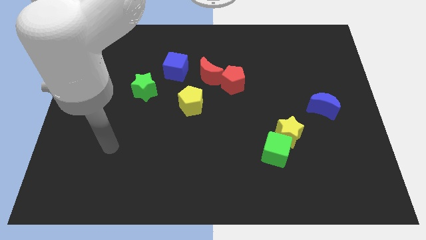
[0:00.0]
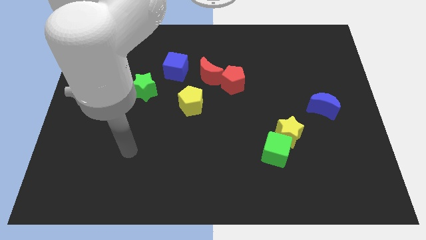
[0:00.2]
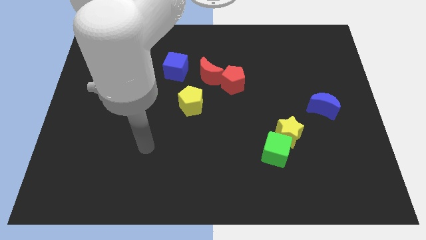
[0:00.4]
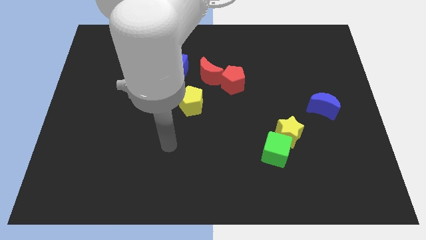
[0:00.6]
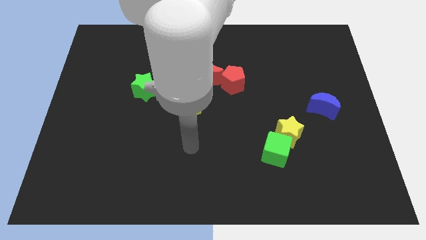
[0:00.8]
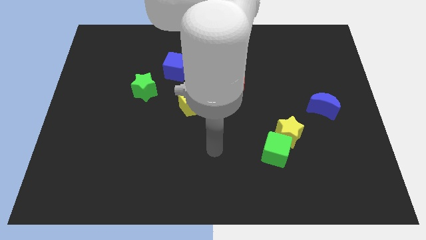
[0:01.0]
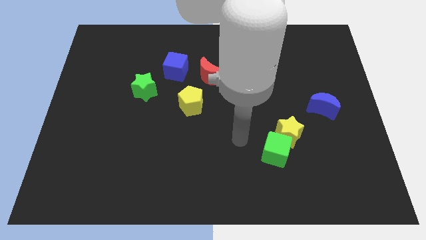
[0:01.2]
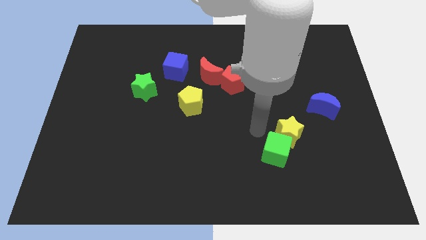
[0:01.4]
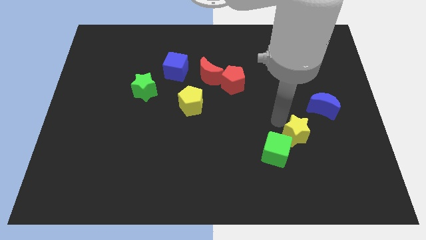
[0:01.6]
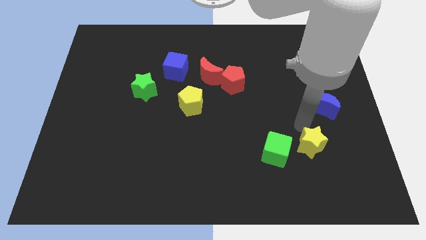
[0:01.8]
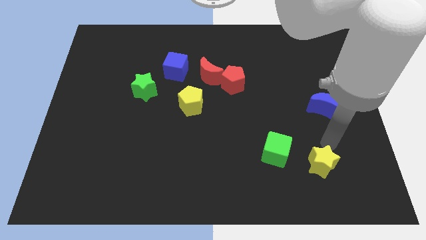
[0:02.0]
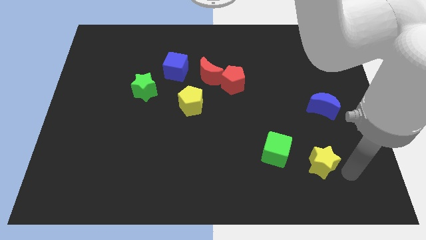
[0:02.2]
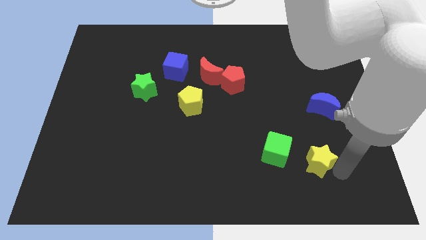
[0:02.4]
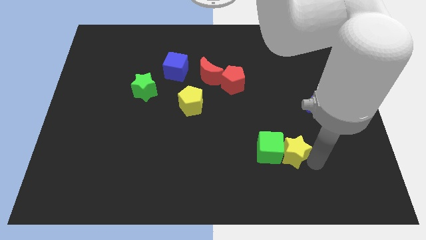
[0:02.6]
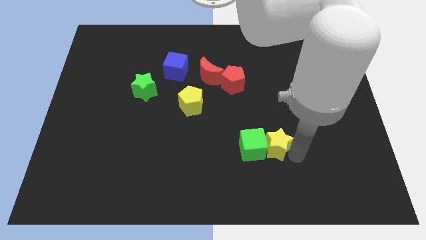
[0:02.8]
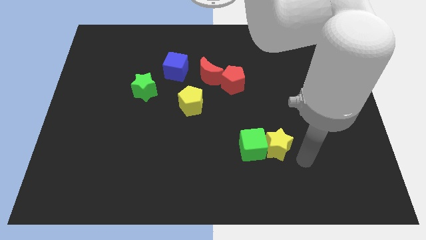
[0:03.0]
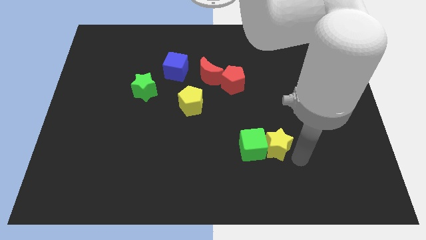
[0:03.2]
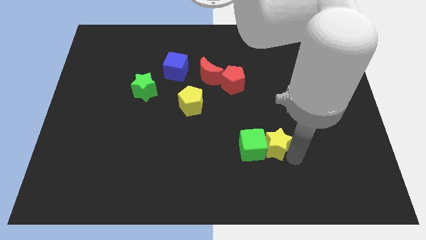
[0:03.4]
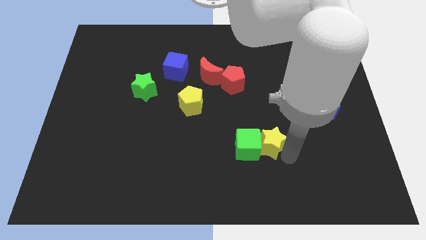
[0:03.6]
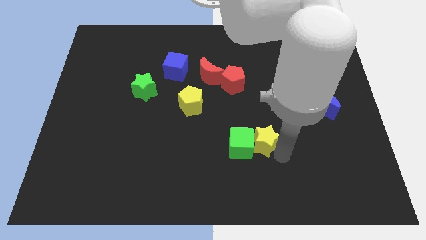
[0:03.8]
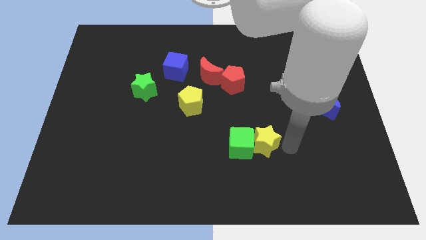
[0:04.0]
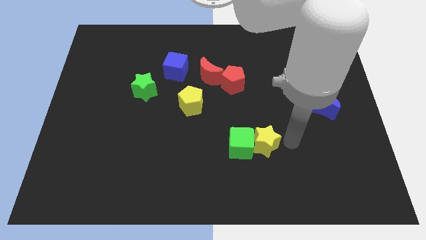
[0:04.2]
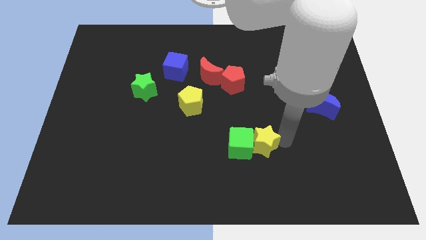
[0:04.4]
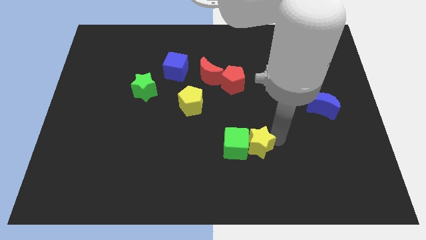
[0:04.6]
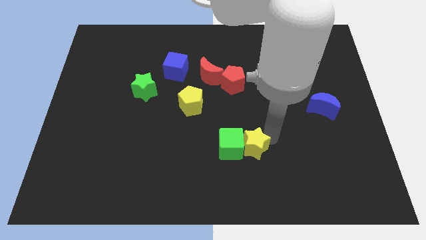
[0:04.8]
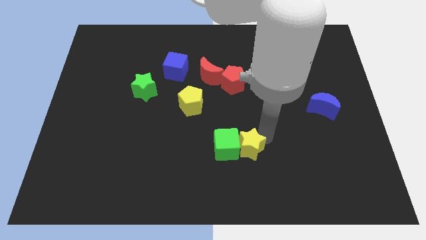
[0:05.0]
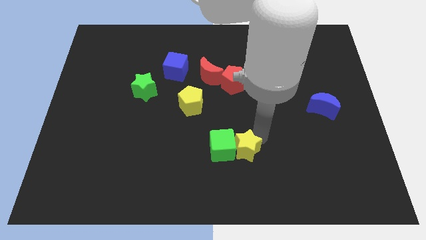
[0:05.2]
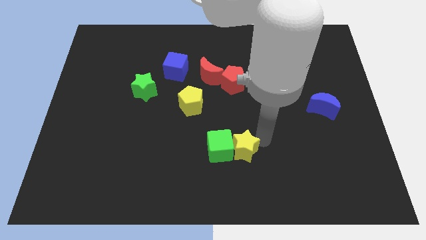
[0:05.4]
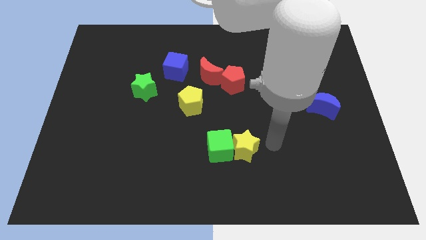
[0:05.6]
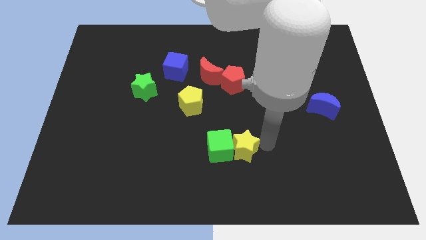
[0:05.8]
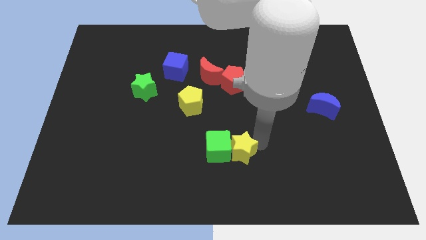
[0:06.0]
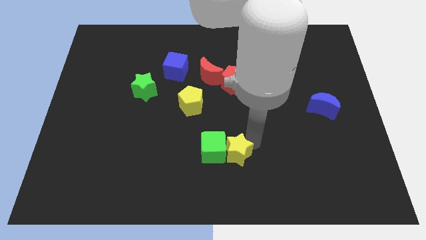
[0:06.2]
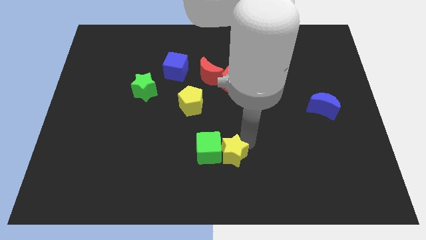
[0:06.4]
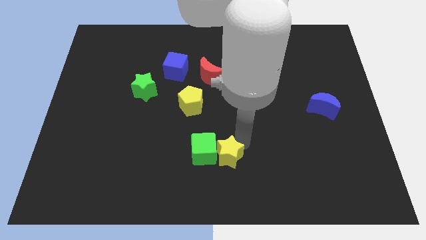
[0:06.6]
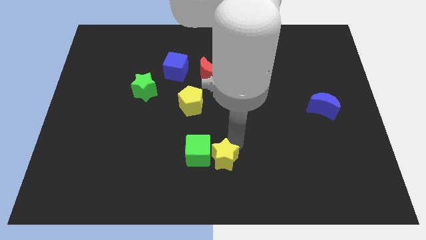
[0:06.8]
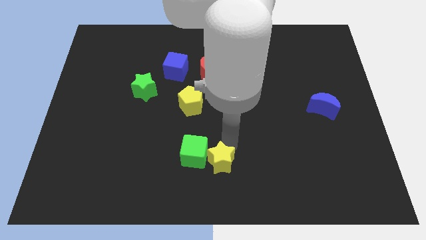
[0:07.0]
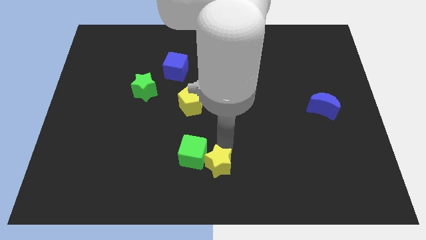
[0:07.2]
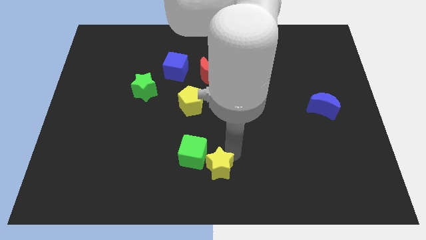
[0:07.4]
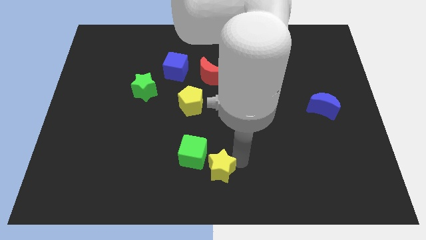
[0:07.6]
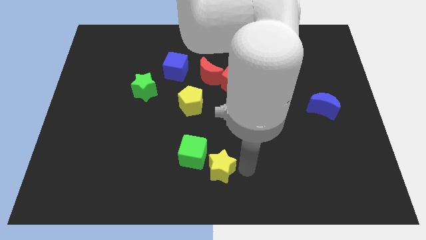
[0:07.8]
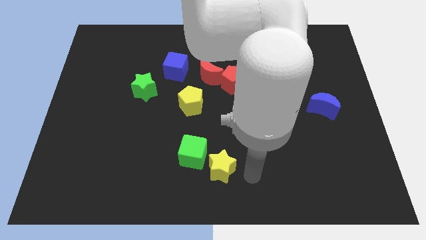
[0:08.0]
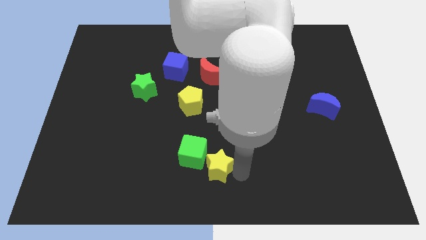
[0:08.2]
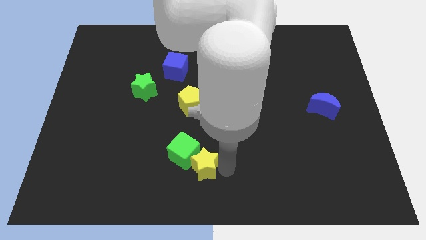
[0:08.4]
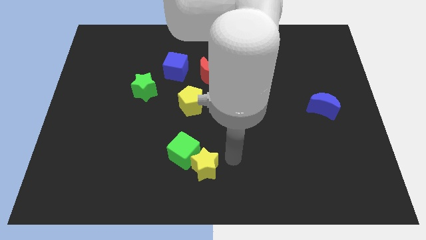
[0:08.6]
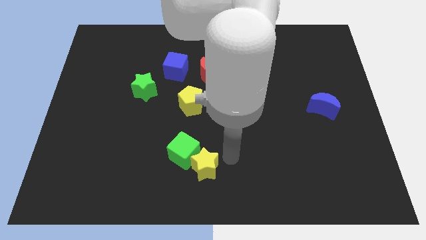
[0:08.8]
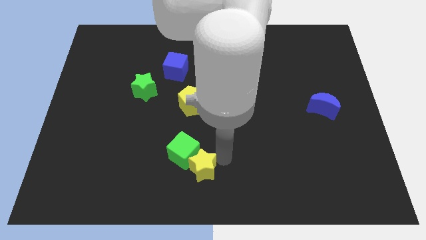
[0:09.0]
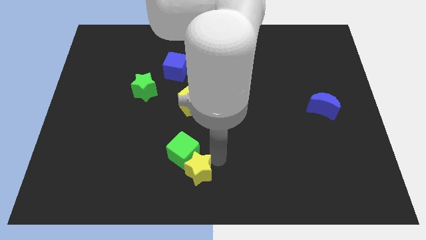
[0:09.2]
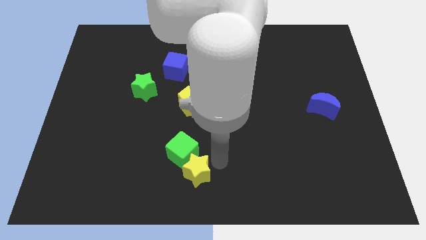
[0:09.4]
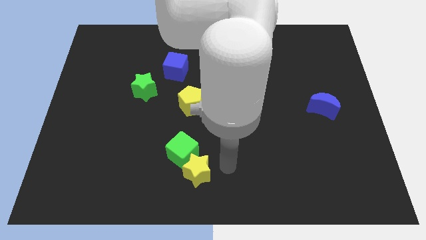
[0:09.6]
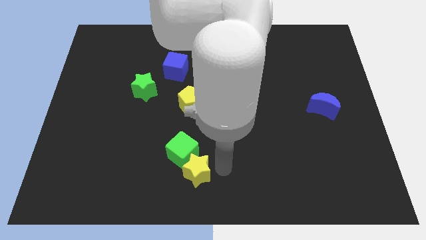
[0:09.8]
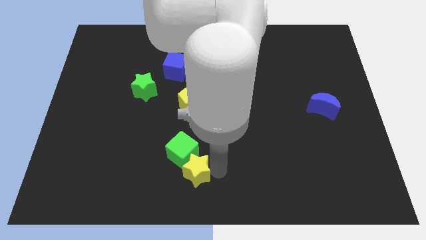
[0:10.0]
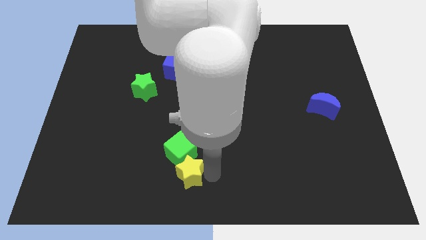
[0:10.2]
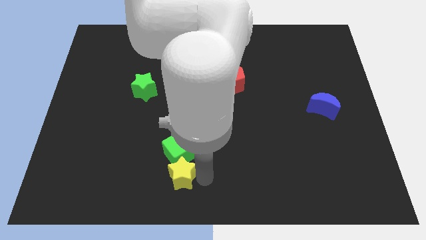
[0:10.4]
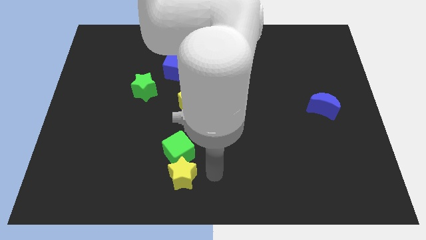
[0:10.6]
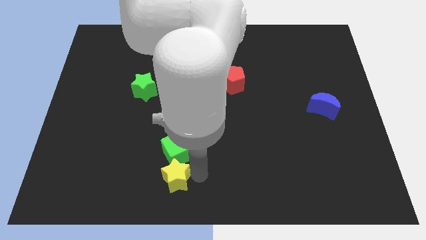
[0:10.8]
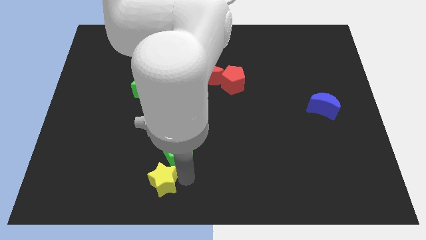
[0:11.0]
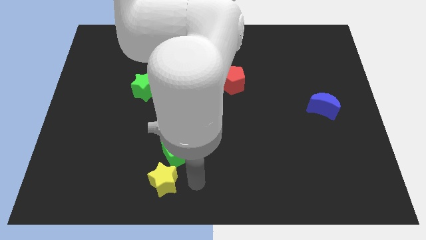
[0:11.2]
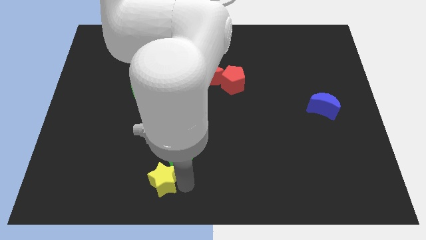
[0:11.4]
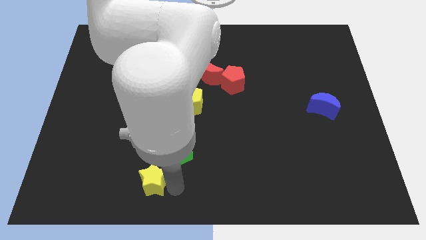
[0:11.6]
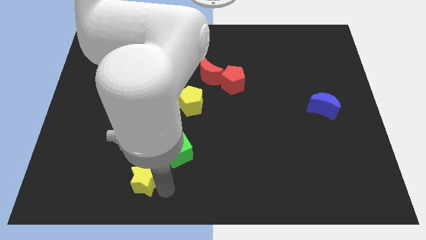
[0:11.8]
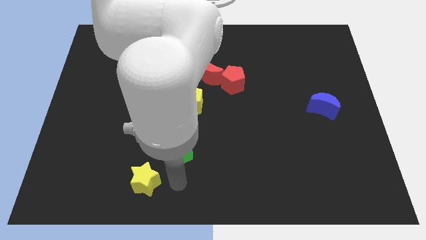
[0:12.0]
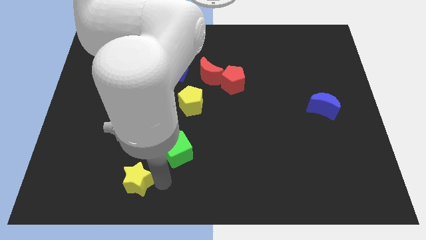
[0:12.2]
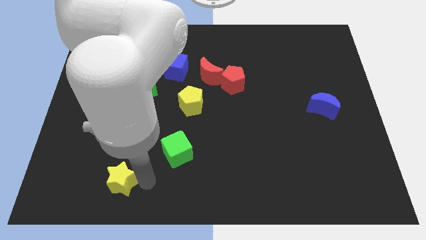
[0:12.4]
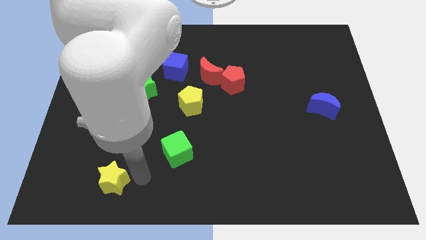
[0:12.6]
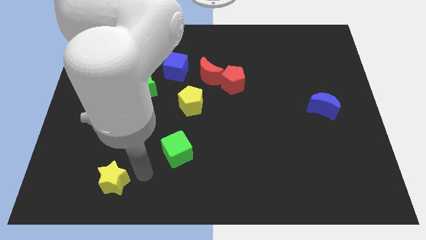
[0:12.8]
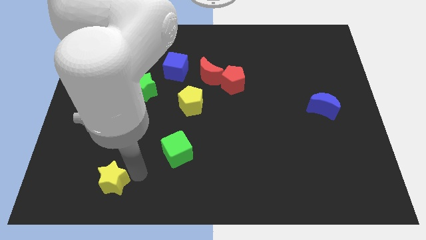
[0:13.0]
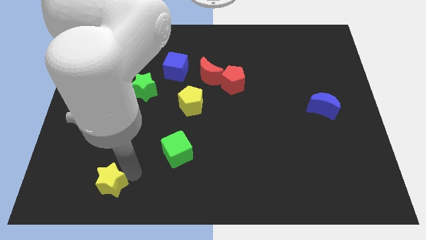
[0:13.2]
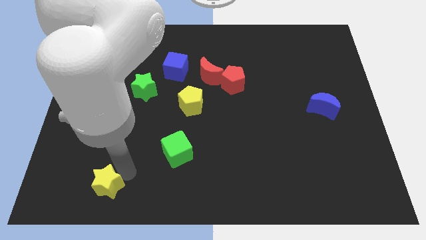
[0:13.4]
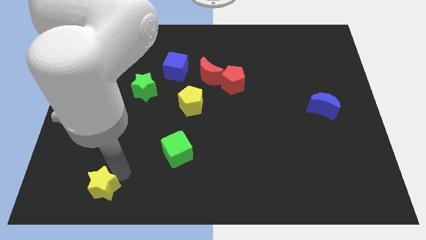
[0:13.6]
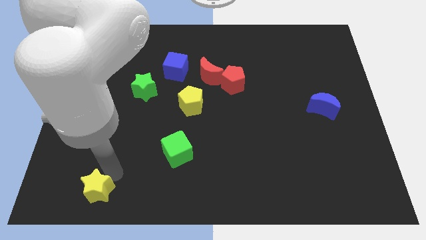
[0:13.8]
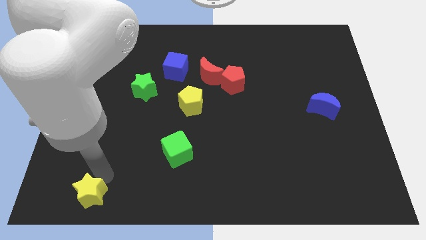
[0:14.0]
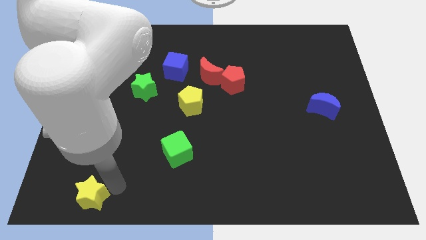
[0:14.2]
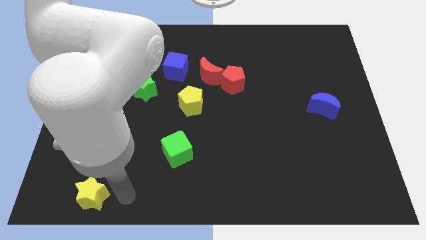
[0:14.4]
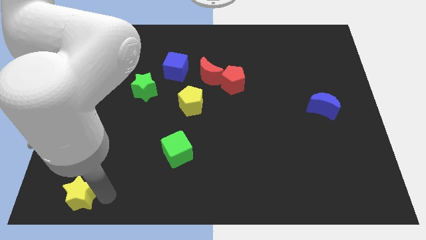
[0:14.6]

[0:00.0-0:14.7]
put the yellow star to the bottom left

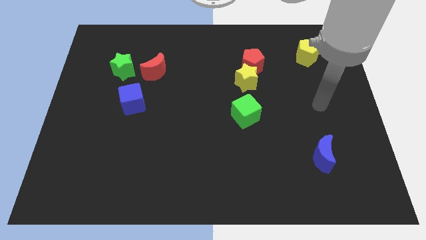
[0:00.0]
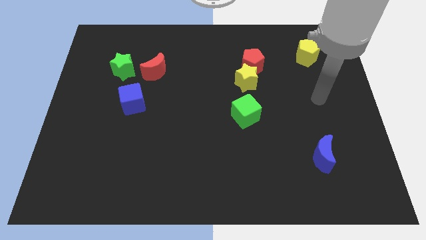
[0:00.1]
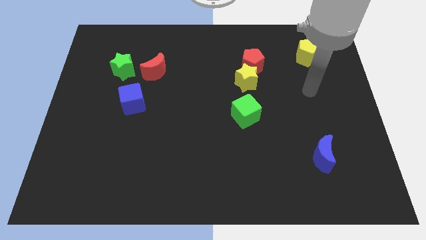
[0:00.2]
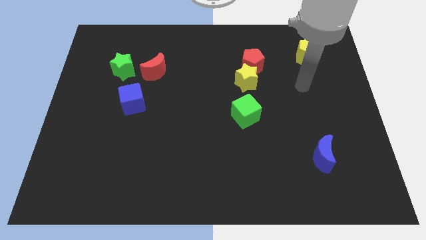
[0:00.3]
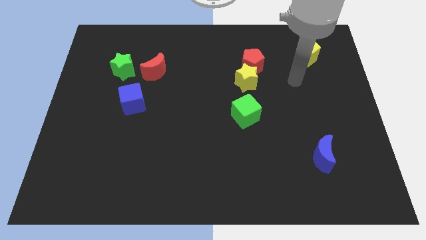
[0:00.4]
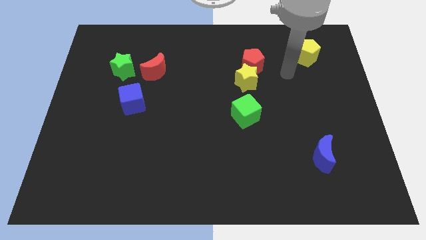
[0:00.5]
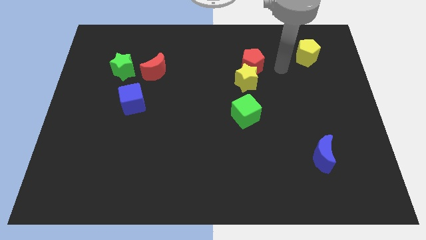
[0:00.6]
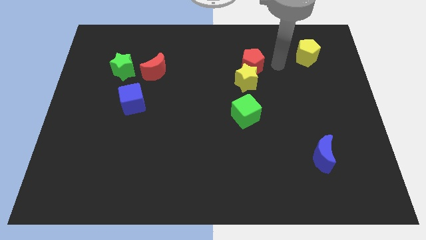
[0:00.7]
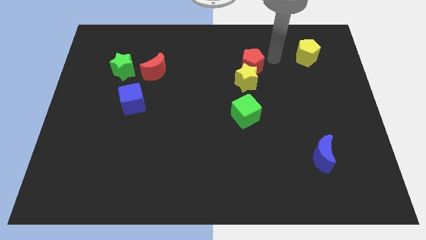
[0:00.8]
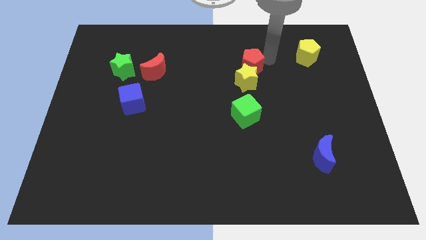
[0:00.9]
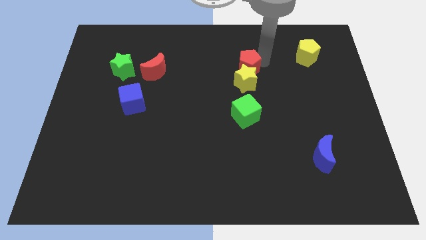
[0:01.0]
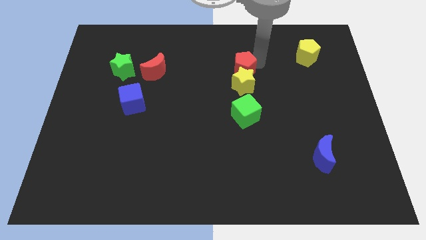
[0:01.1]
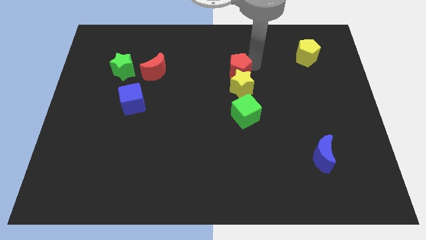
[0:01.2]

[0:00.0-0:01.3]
push the red pentagon to the middle of the board
